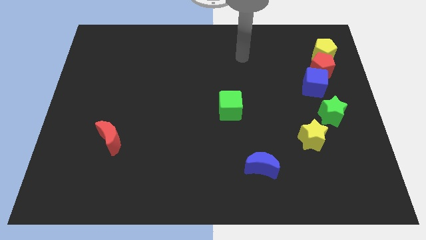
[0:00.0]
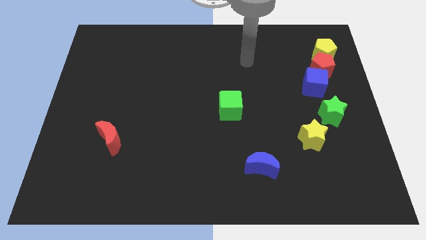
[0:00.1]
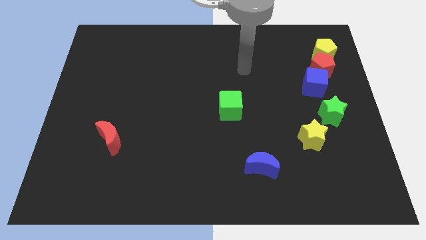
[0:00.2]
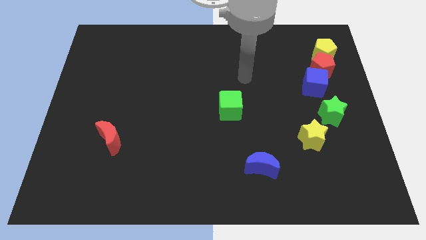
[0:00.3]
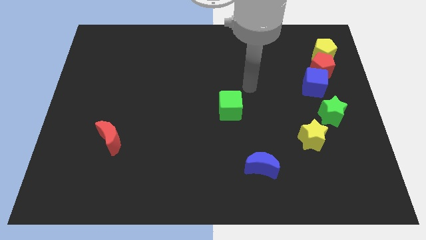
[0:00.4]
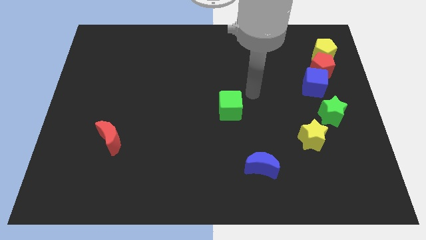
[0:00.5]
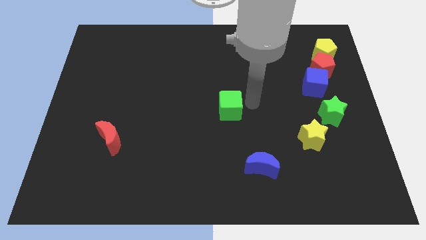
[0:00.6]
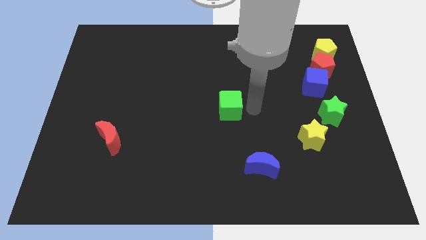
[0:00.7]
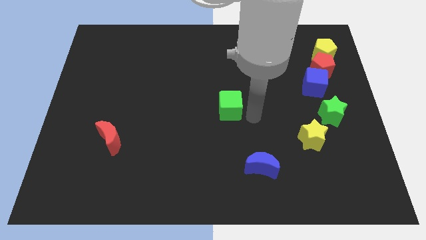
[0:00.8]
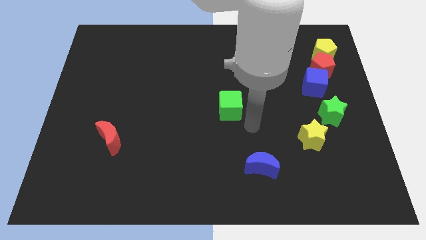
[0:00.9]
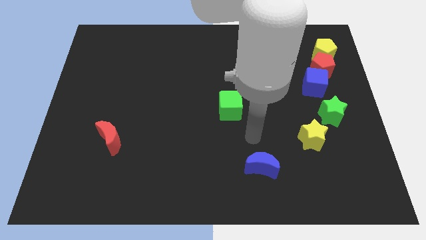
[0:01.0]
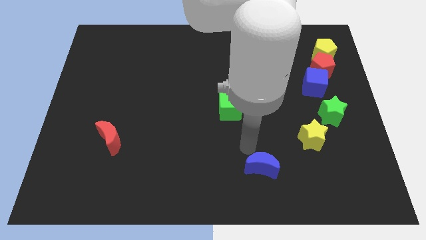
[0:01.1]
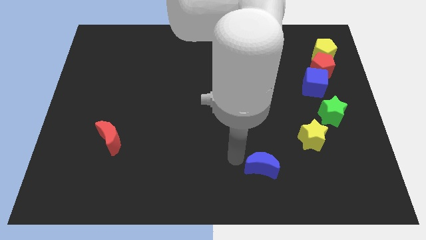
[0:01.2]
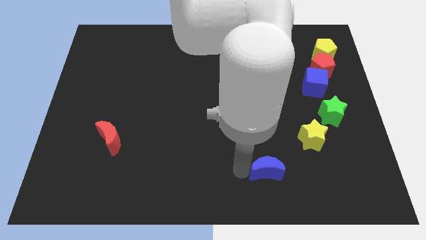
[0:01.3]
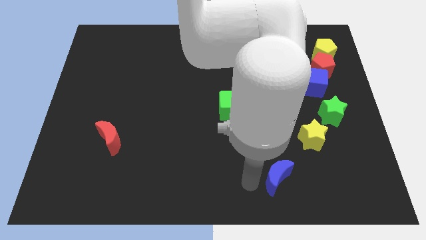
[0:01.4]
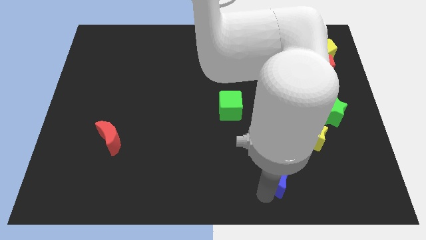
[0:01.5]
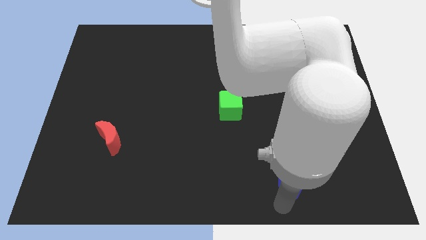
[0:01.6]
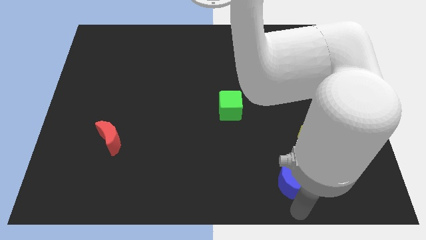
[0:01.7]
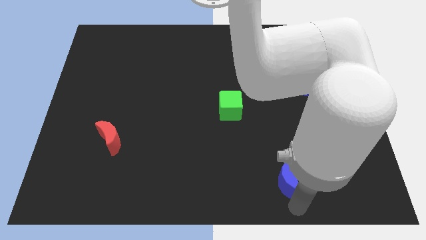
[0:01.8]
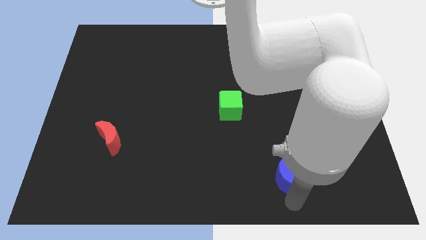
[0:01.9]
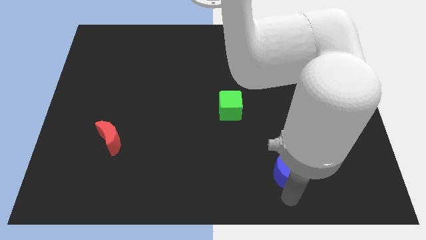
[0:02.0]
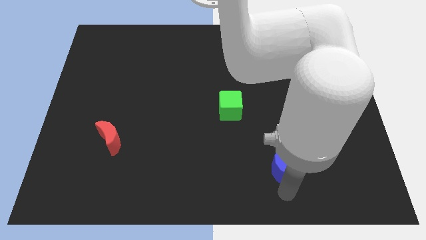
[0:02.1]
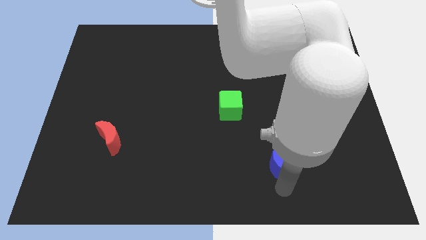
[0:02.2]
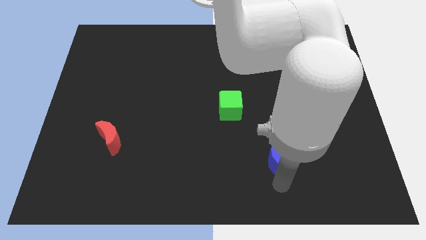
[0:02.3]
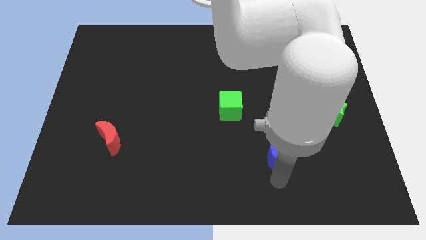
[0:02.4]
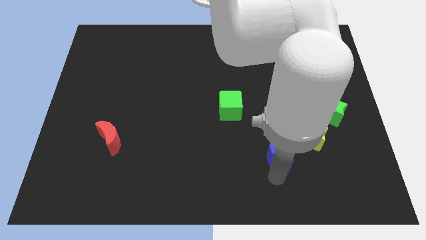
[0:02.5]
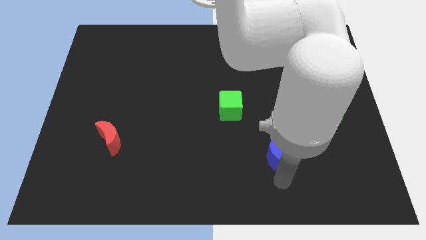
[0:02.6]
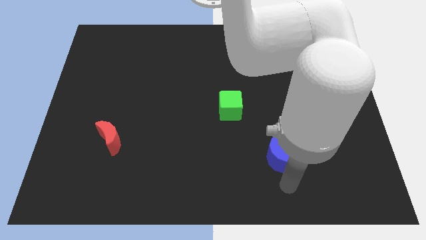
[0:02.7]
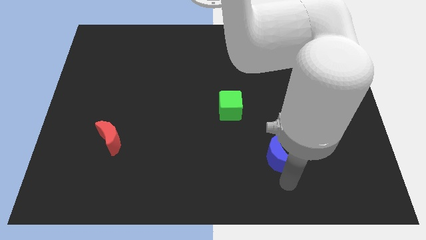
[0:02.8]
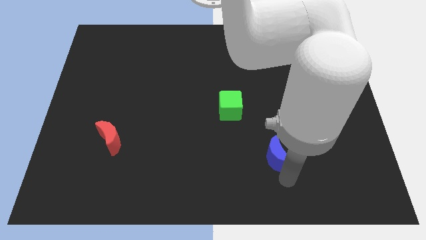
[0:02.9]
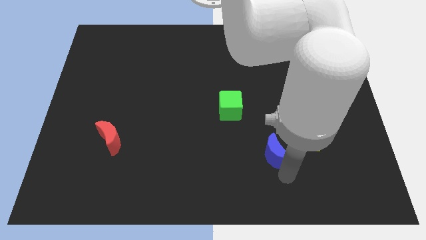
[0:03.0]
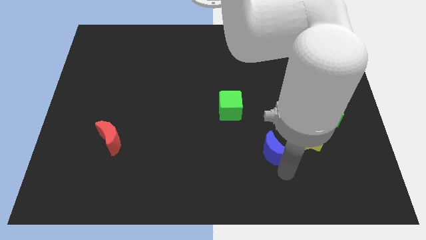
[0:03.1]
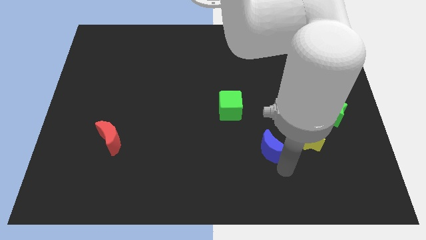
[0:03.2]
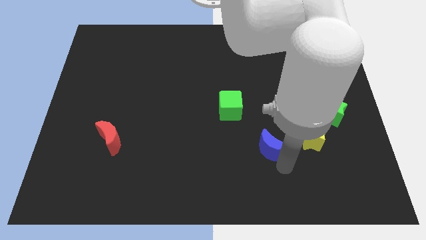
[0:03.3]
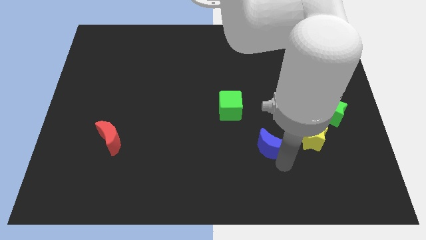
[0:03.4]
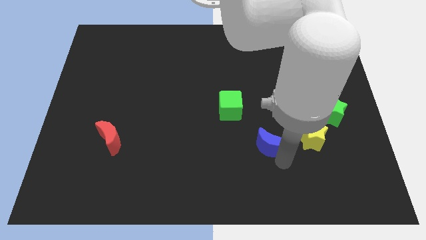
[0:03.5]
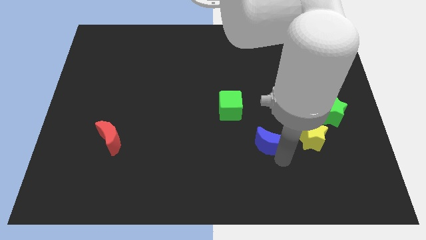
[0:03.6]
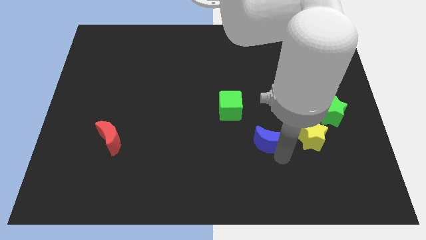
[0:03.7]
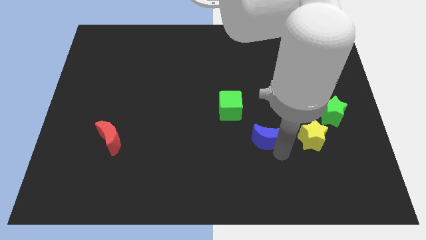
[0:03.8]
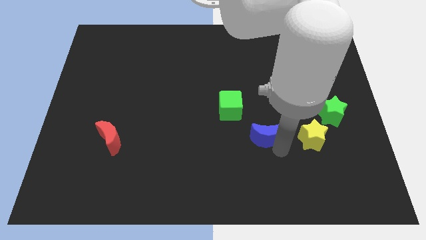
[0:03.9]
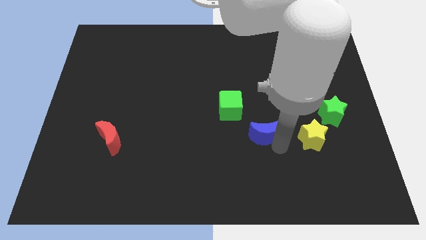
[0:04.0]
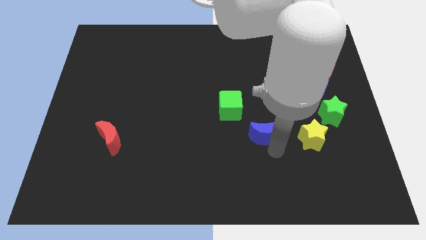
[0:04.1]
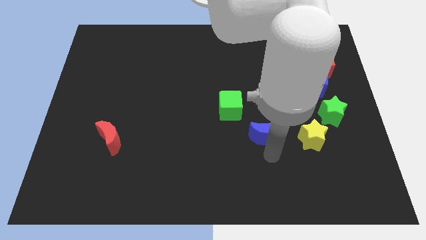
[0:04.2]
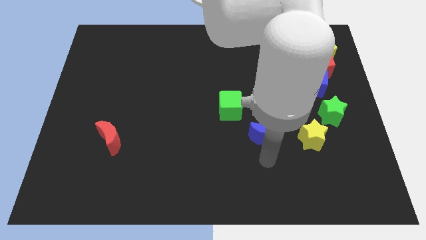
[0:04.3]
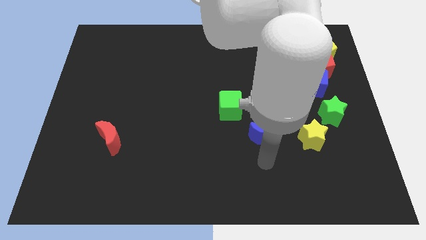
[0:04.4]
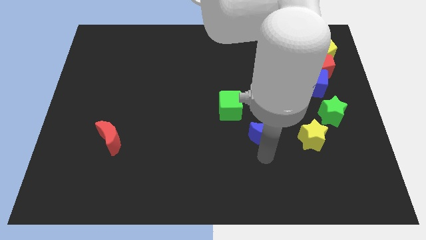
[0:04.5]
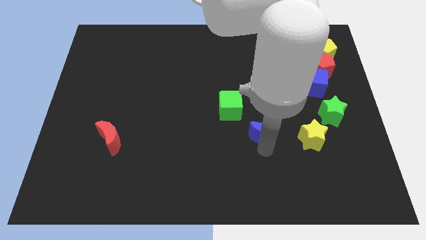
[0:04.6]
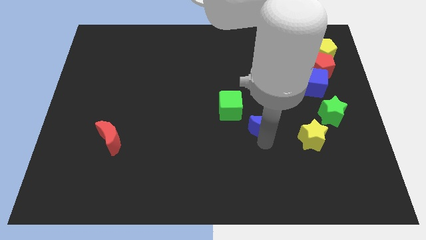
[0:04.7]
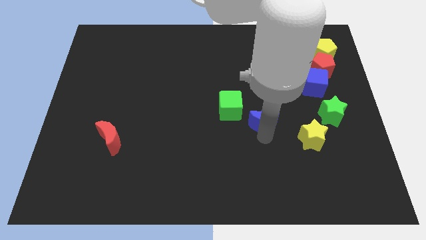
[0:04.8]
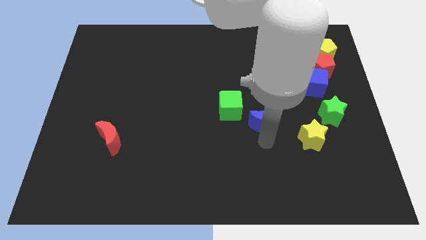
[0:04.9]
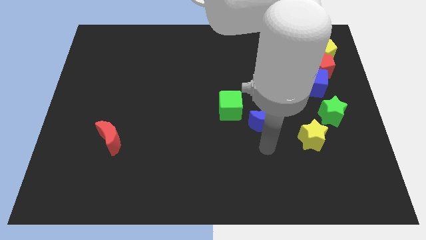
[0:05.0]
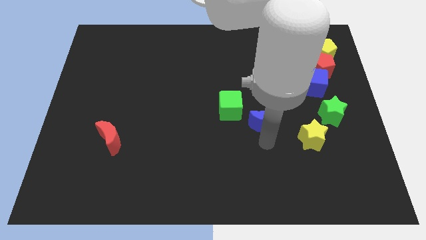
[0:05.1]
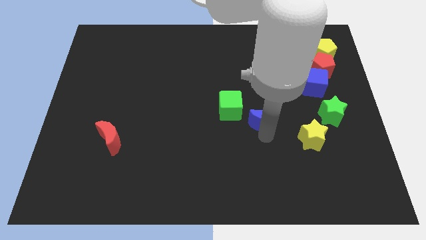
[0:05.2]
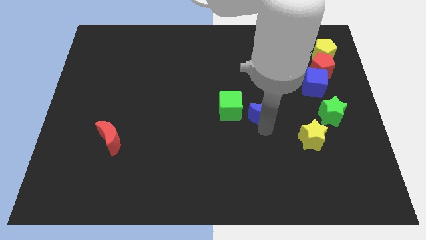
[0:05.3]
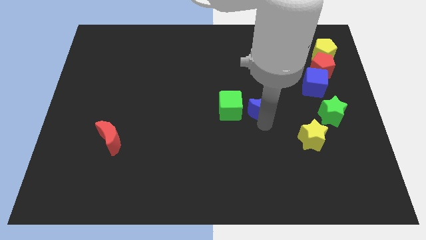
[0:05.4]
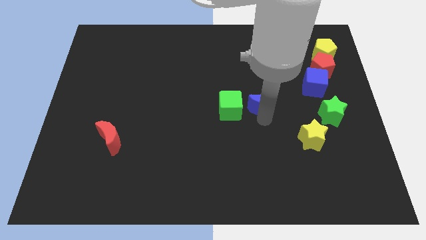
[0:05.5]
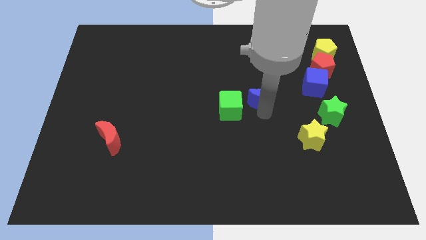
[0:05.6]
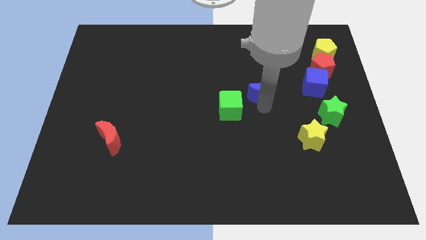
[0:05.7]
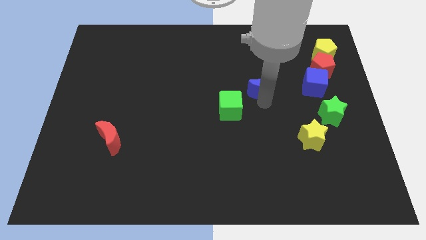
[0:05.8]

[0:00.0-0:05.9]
move the blue moon up

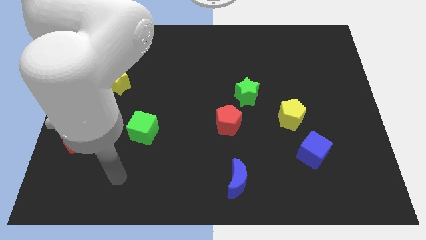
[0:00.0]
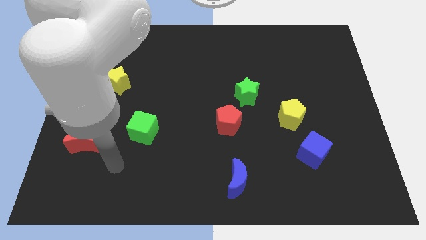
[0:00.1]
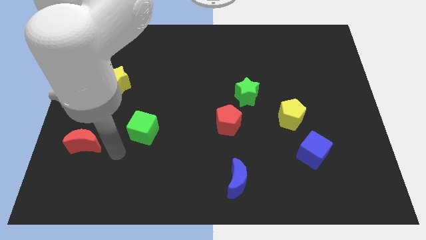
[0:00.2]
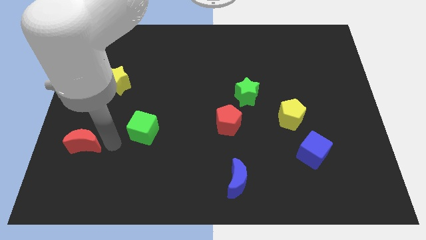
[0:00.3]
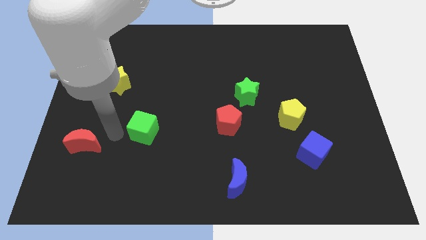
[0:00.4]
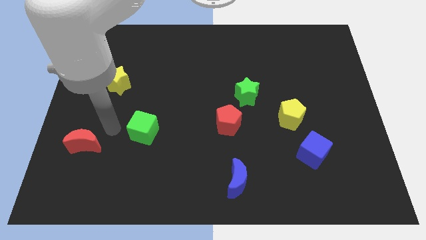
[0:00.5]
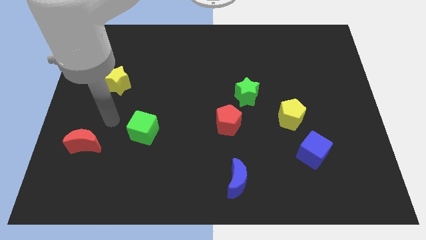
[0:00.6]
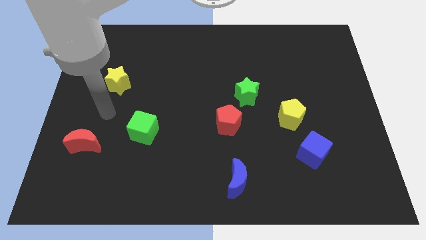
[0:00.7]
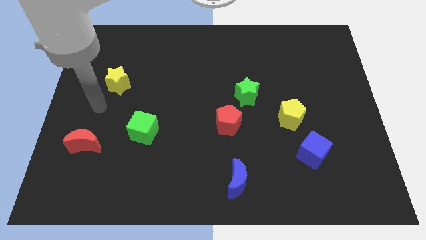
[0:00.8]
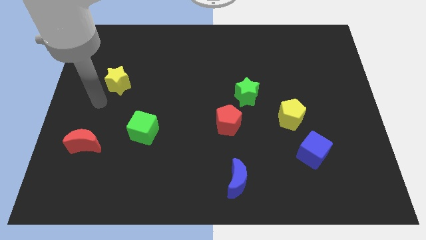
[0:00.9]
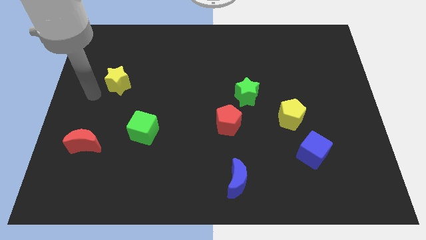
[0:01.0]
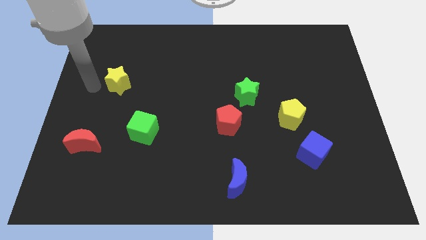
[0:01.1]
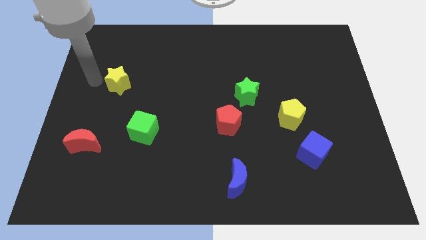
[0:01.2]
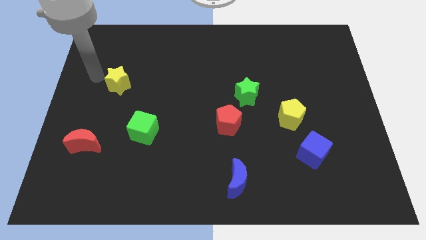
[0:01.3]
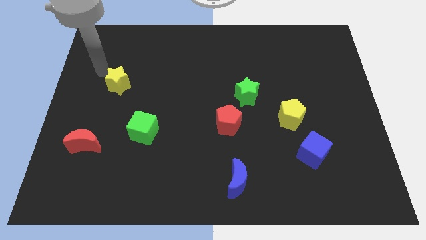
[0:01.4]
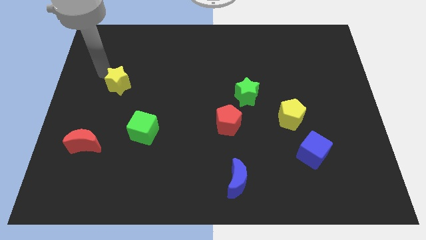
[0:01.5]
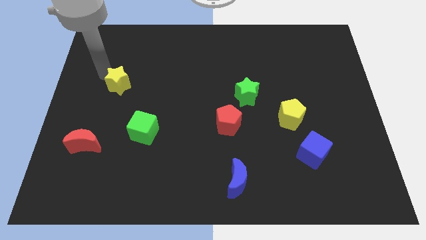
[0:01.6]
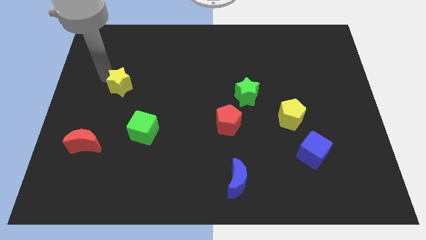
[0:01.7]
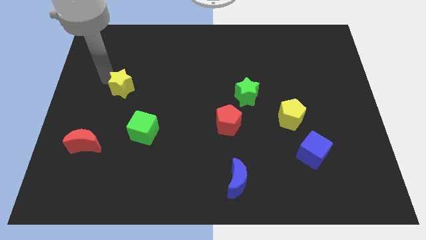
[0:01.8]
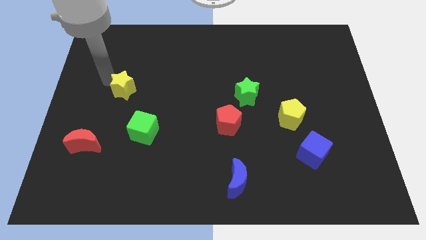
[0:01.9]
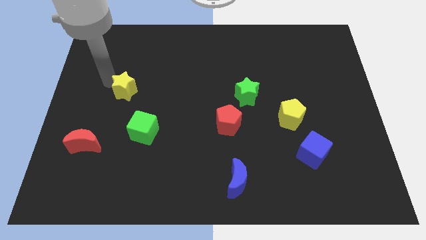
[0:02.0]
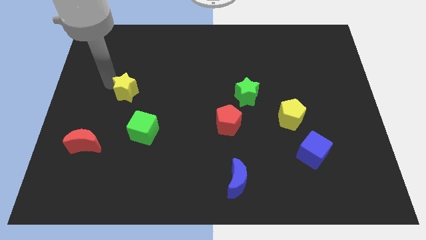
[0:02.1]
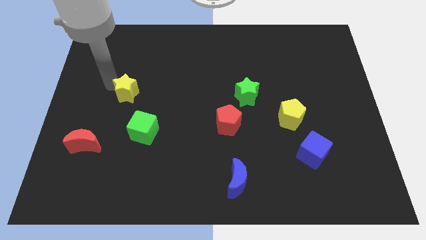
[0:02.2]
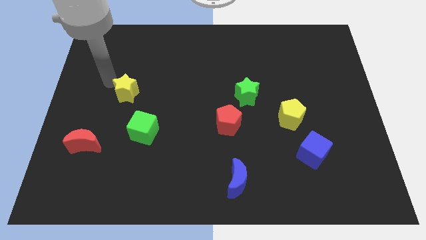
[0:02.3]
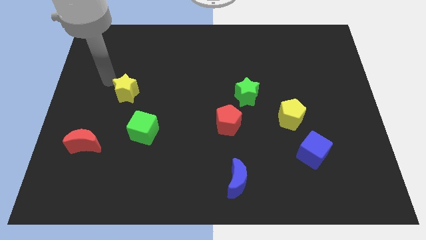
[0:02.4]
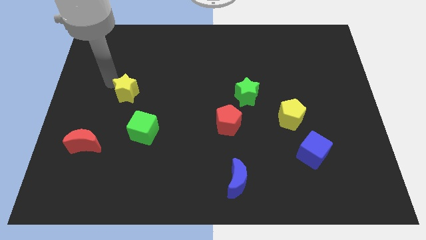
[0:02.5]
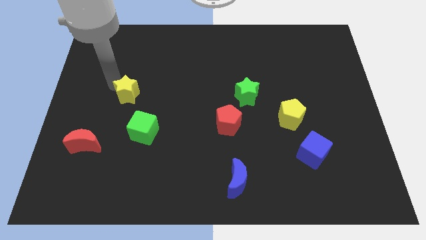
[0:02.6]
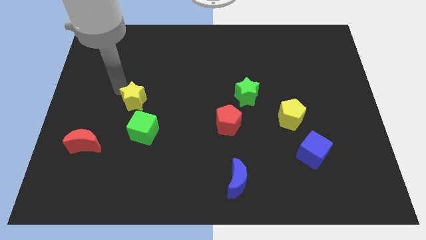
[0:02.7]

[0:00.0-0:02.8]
slightly slide the yellow star down and right diagonally
